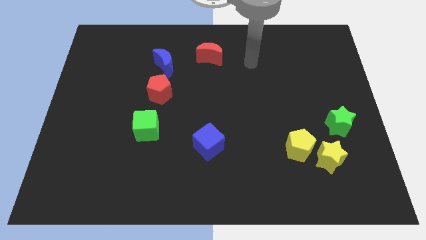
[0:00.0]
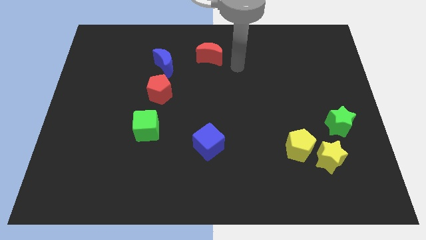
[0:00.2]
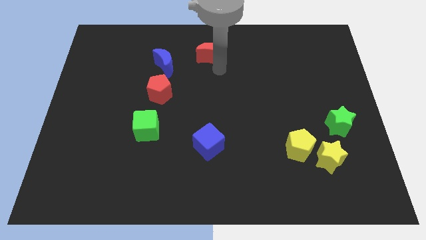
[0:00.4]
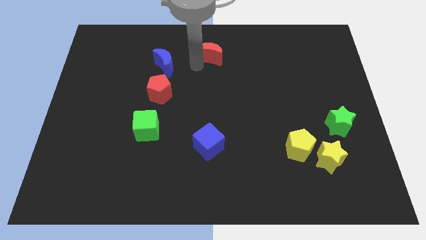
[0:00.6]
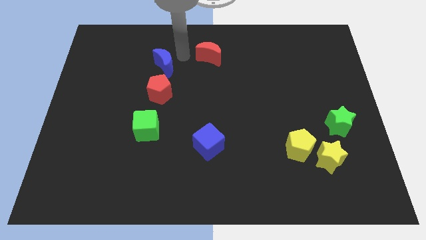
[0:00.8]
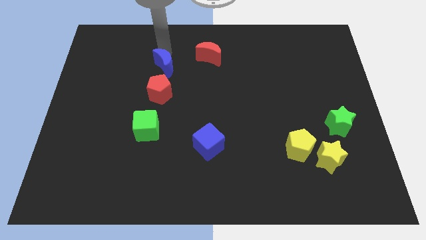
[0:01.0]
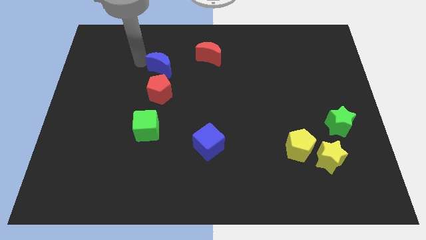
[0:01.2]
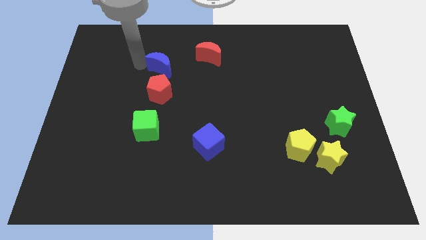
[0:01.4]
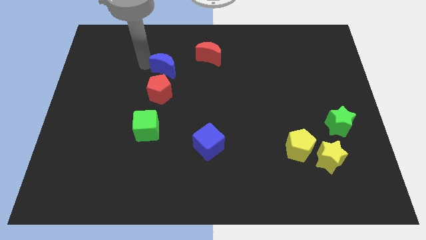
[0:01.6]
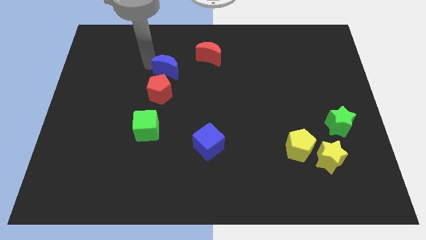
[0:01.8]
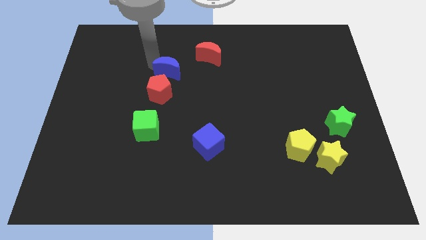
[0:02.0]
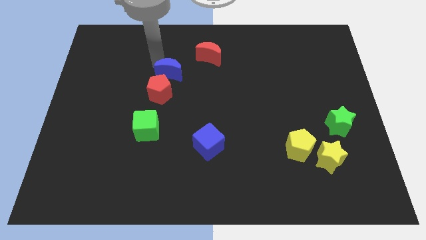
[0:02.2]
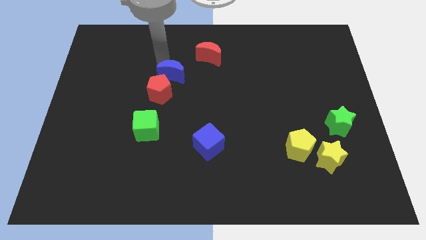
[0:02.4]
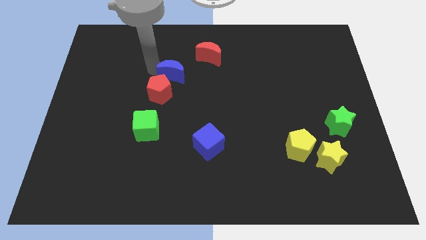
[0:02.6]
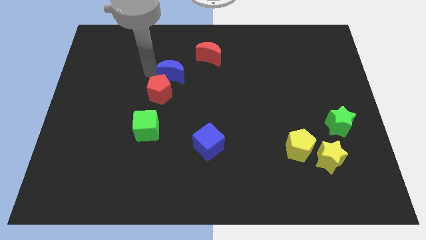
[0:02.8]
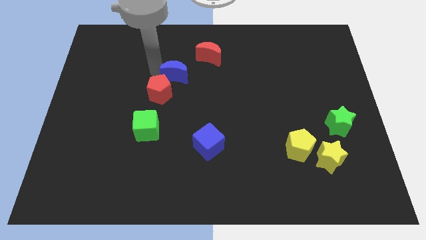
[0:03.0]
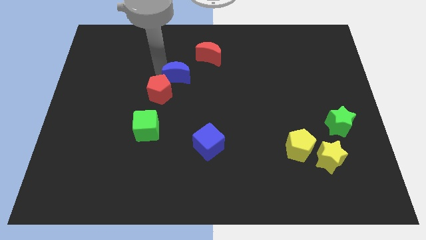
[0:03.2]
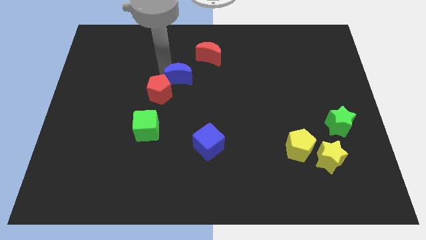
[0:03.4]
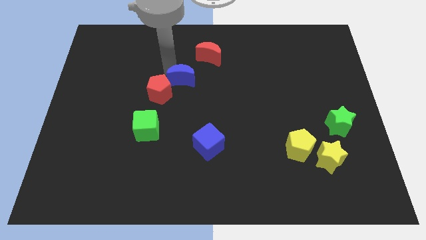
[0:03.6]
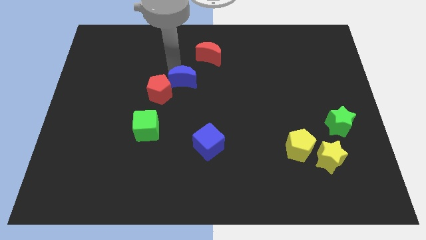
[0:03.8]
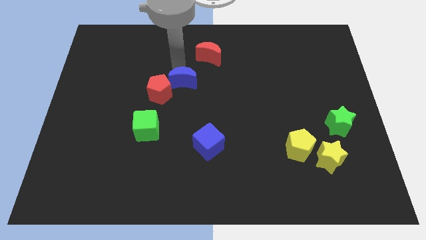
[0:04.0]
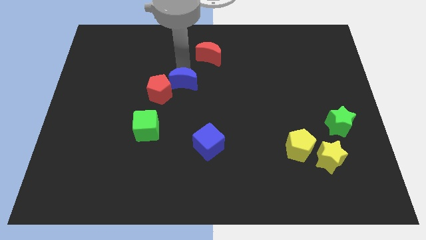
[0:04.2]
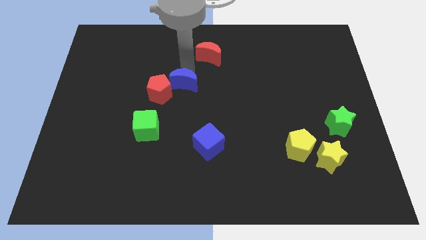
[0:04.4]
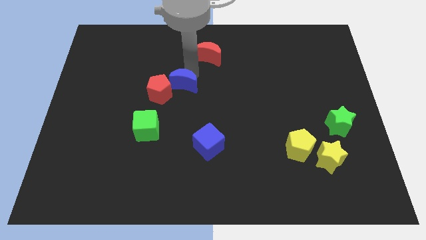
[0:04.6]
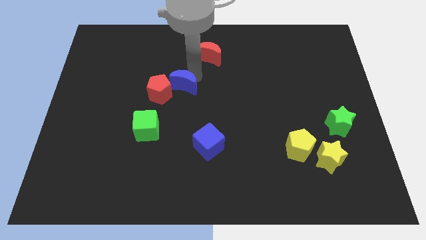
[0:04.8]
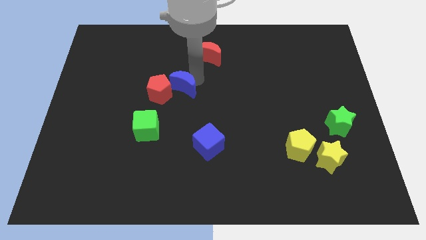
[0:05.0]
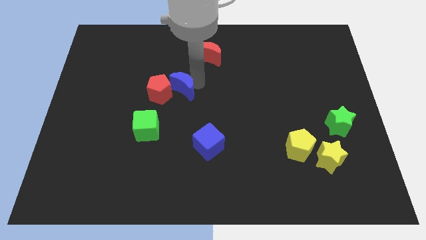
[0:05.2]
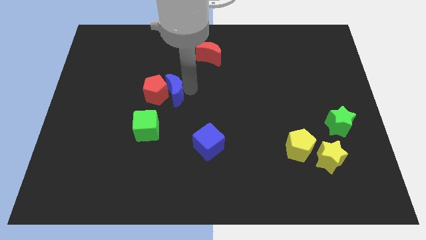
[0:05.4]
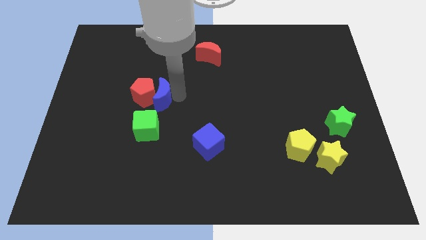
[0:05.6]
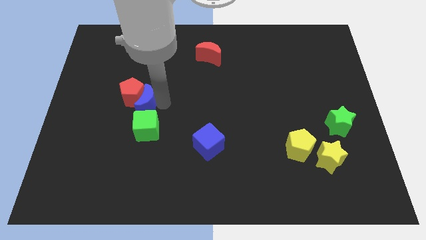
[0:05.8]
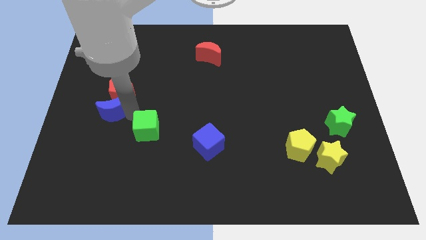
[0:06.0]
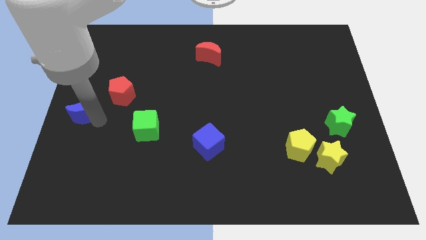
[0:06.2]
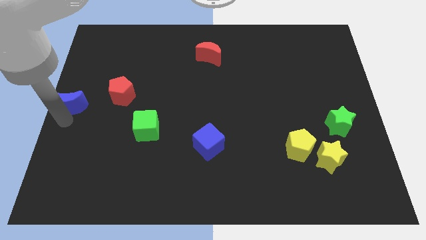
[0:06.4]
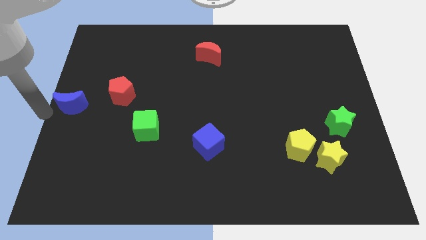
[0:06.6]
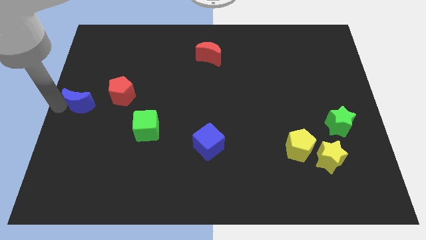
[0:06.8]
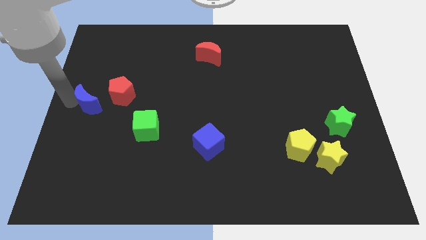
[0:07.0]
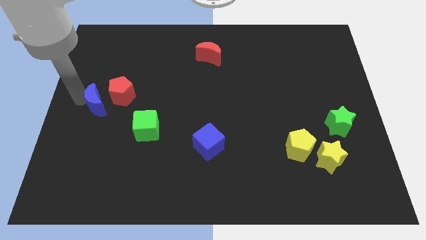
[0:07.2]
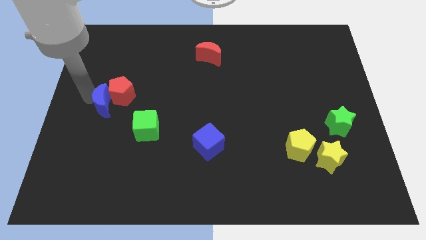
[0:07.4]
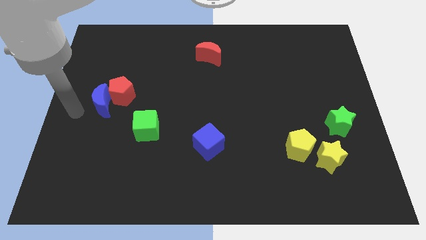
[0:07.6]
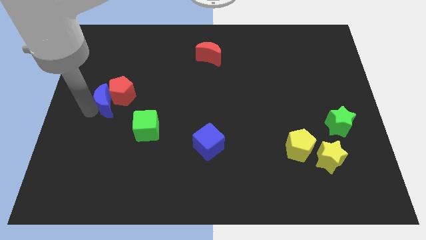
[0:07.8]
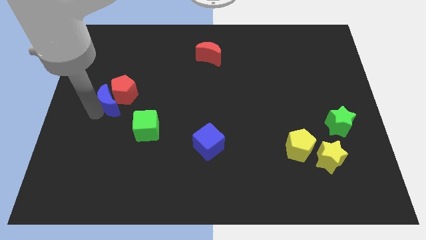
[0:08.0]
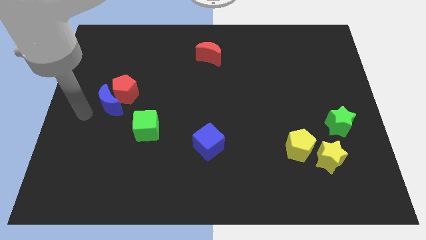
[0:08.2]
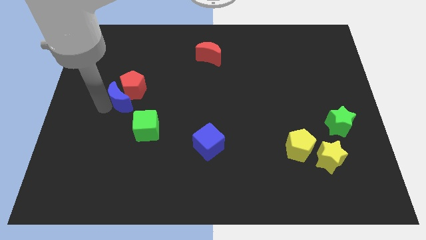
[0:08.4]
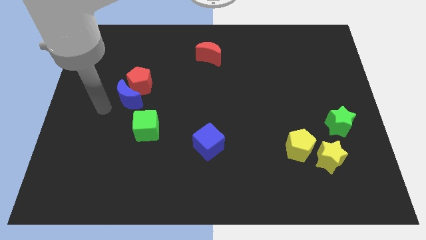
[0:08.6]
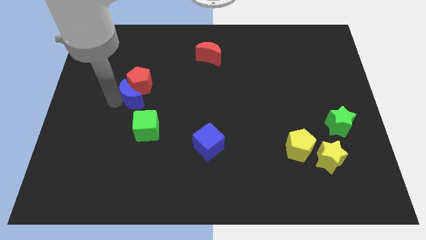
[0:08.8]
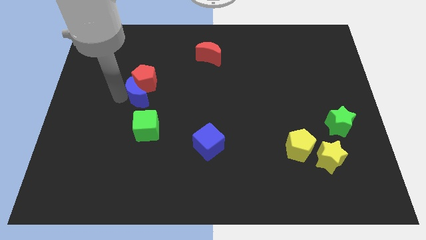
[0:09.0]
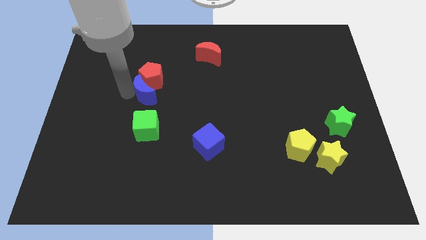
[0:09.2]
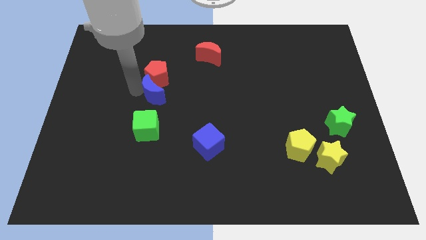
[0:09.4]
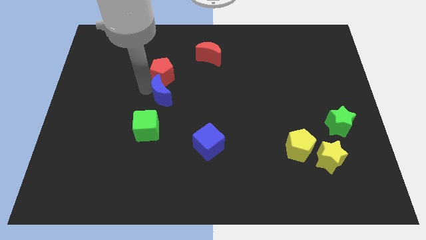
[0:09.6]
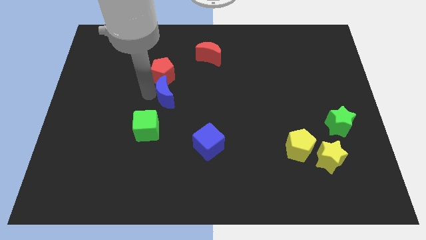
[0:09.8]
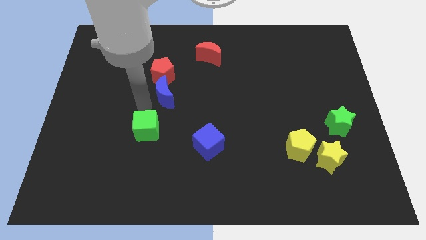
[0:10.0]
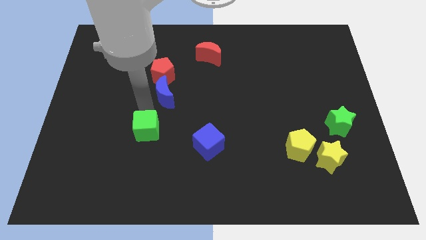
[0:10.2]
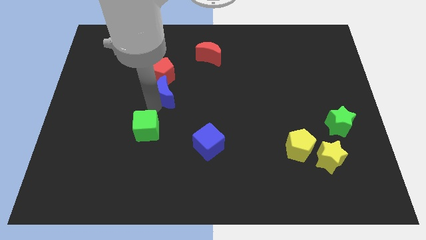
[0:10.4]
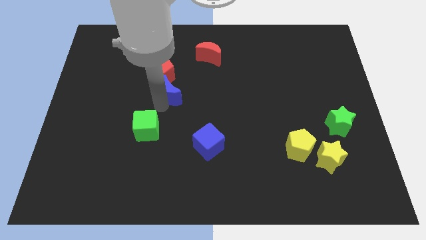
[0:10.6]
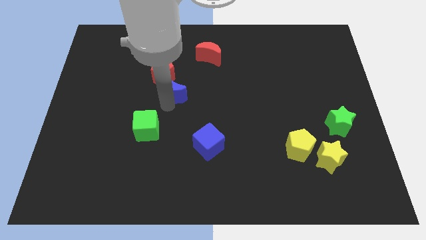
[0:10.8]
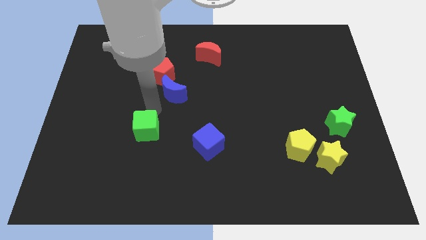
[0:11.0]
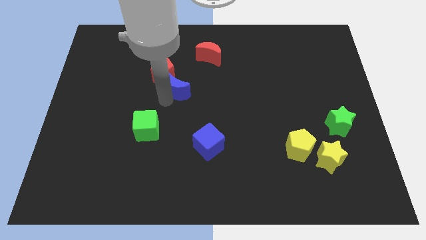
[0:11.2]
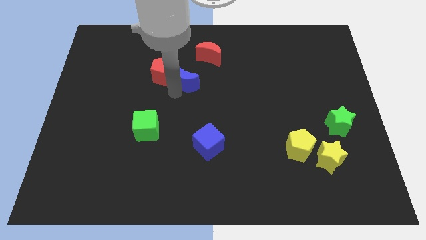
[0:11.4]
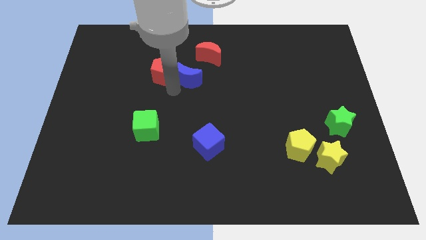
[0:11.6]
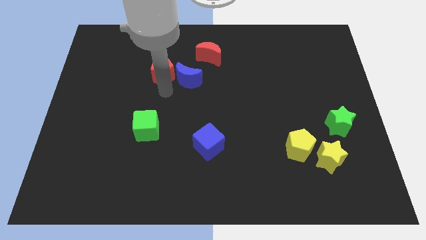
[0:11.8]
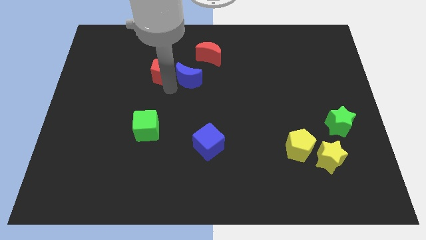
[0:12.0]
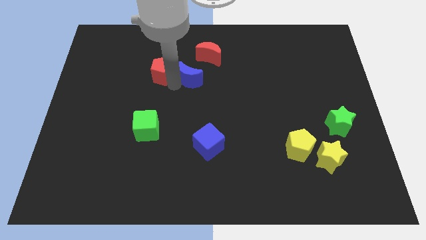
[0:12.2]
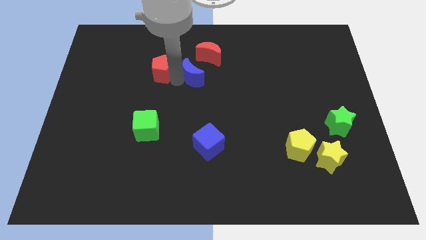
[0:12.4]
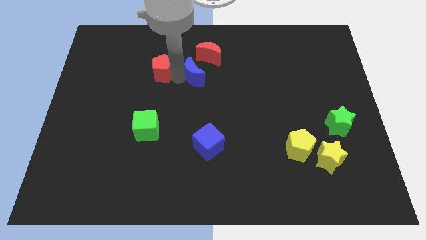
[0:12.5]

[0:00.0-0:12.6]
slightly move the blue moon to the right

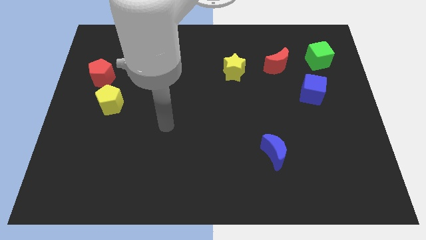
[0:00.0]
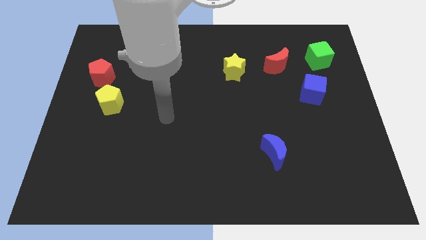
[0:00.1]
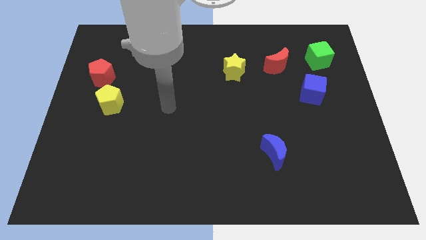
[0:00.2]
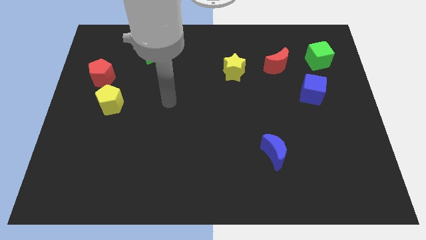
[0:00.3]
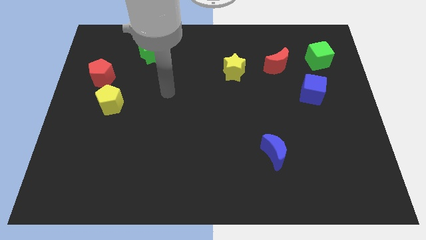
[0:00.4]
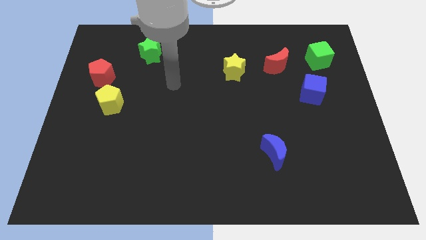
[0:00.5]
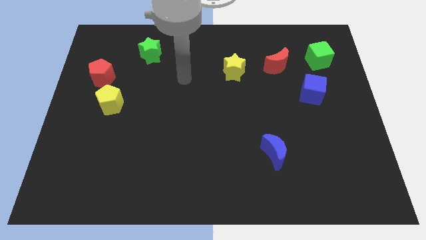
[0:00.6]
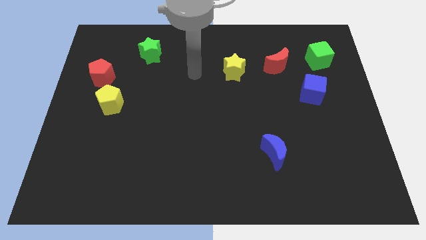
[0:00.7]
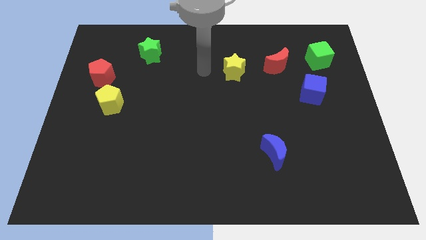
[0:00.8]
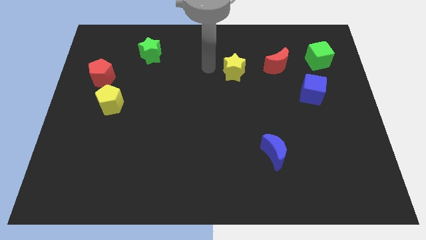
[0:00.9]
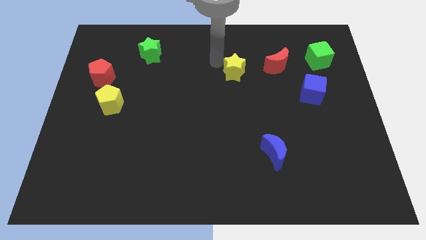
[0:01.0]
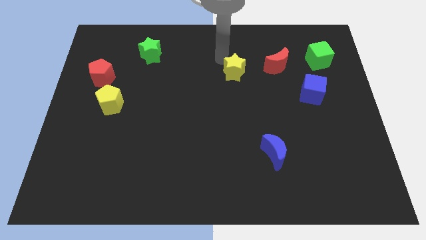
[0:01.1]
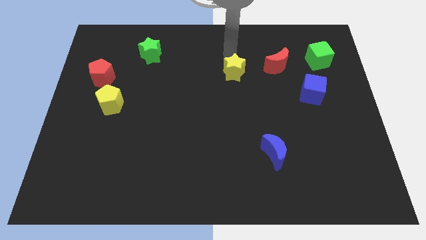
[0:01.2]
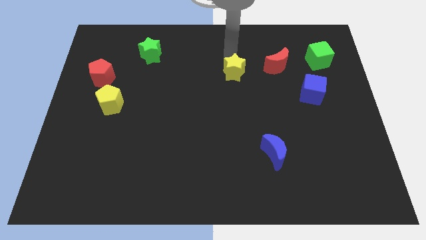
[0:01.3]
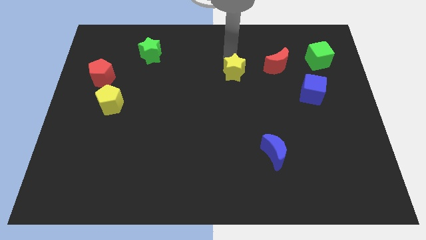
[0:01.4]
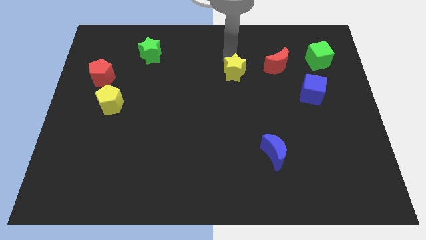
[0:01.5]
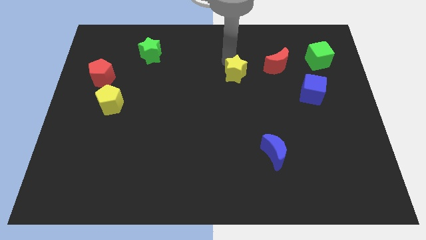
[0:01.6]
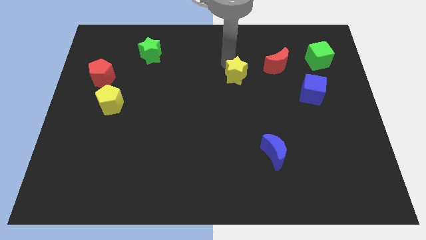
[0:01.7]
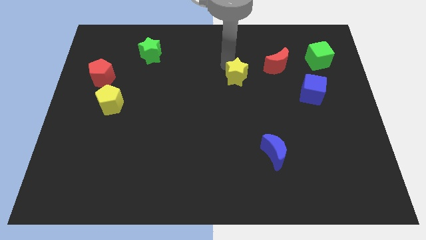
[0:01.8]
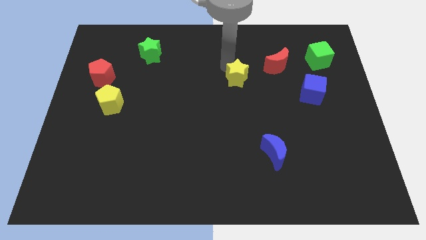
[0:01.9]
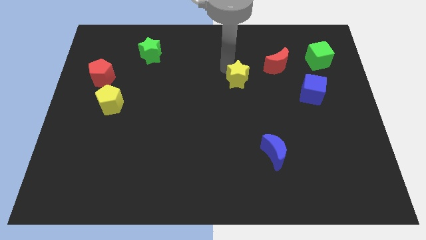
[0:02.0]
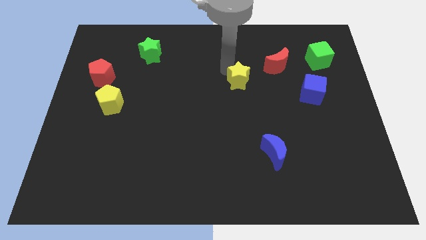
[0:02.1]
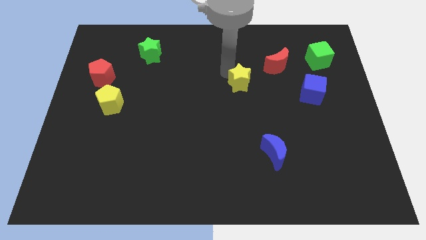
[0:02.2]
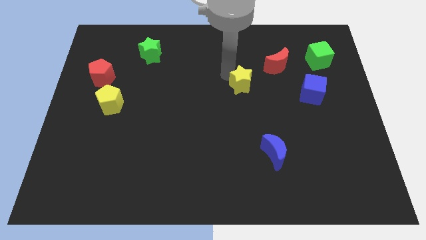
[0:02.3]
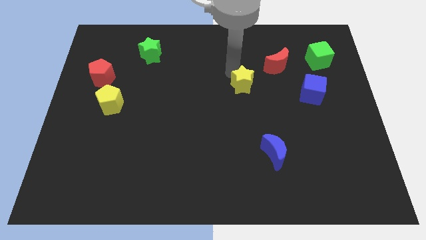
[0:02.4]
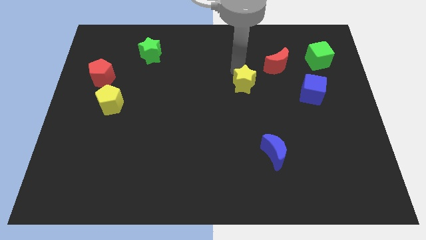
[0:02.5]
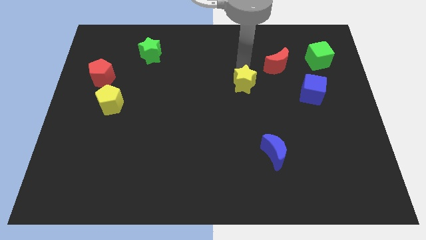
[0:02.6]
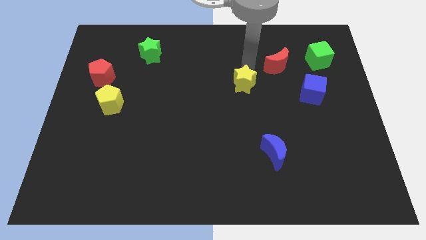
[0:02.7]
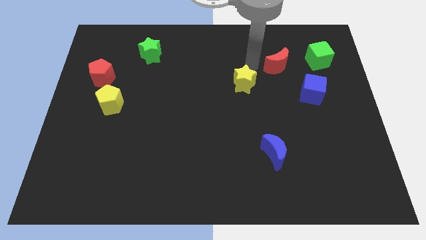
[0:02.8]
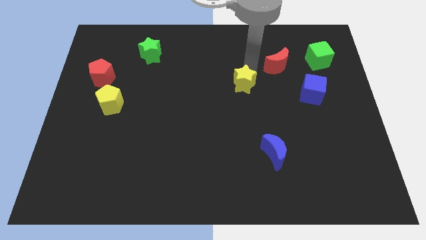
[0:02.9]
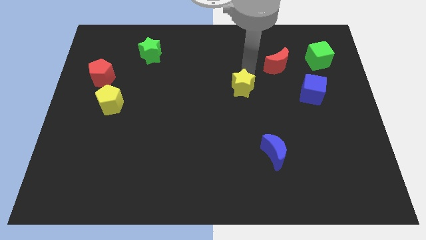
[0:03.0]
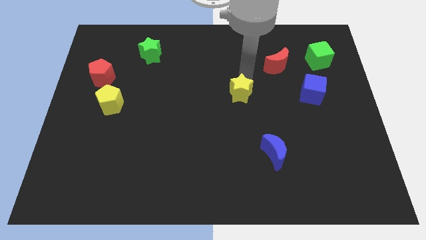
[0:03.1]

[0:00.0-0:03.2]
slightly slide the yellow star downwards
